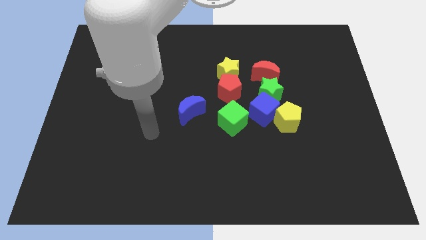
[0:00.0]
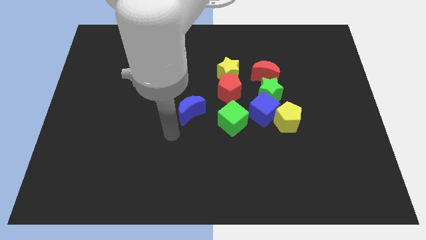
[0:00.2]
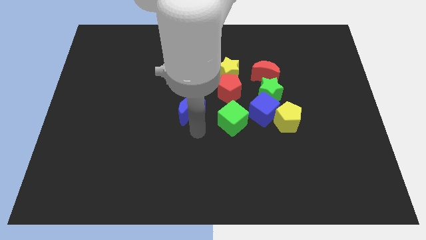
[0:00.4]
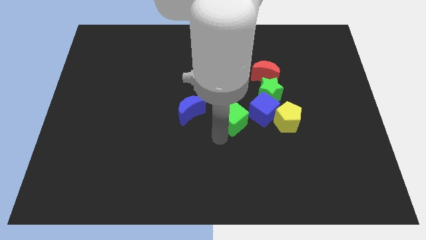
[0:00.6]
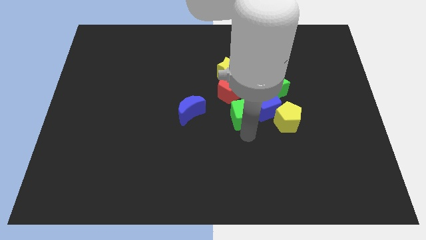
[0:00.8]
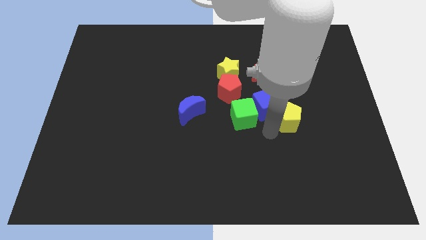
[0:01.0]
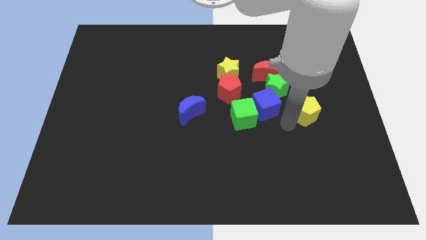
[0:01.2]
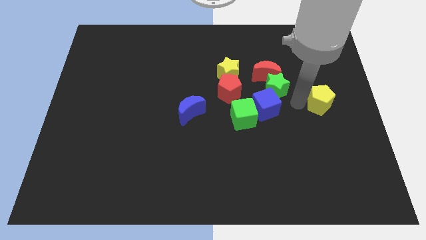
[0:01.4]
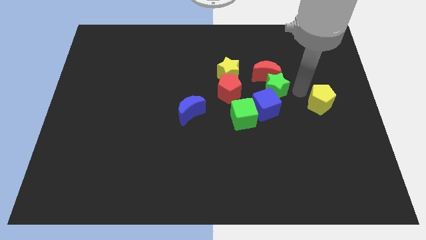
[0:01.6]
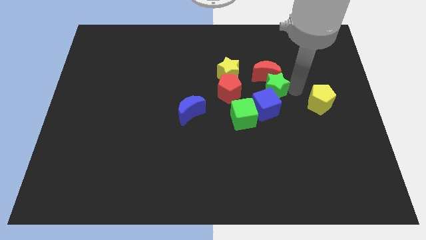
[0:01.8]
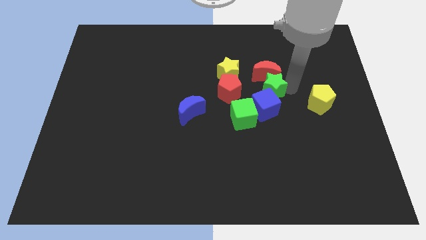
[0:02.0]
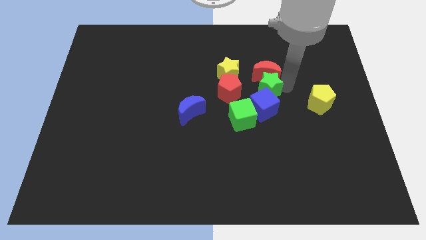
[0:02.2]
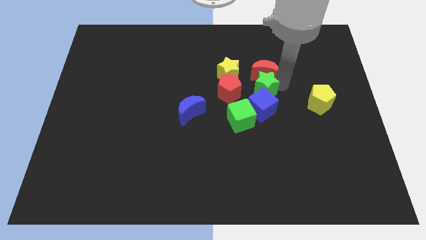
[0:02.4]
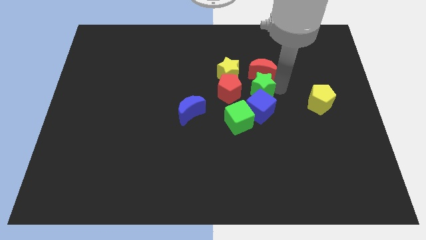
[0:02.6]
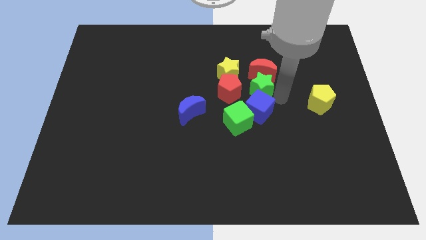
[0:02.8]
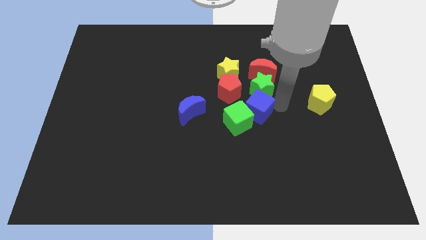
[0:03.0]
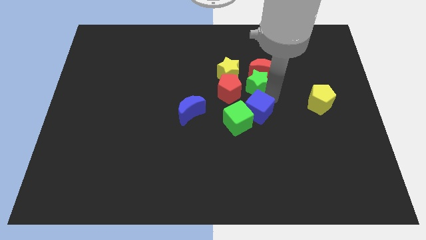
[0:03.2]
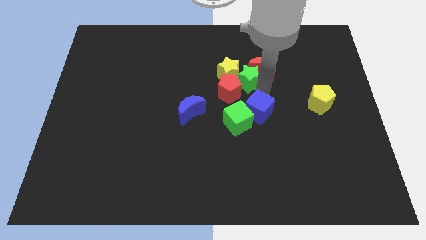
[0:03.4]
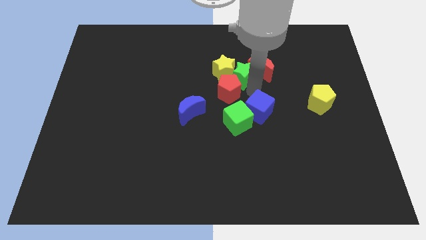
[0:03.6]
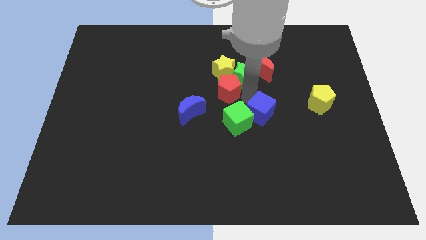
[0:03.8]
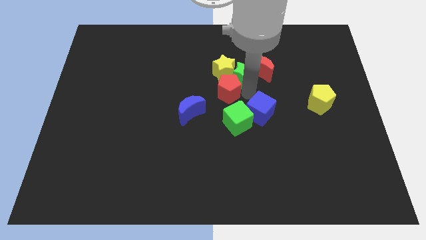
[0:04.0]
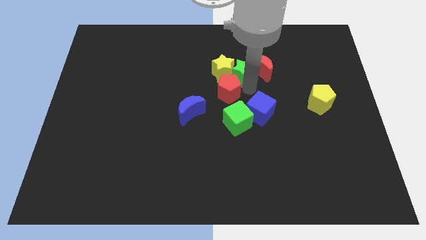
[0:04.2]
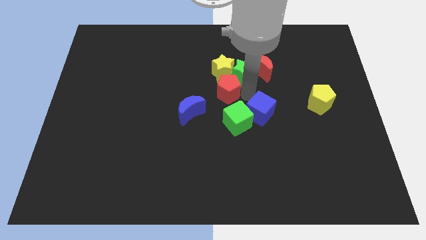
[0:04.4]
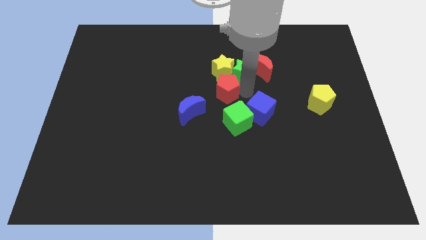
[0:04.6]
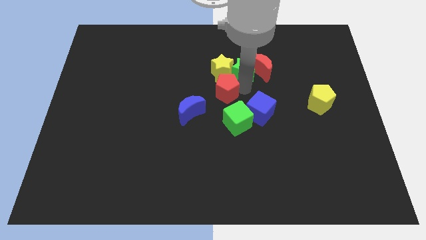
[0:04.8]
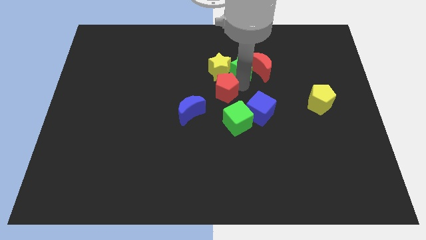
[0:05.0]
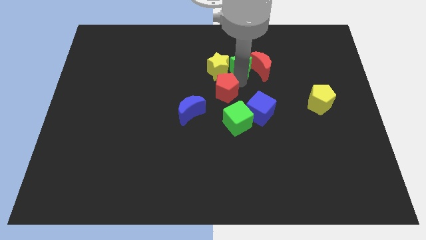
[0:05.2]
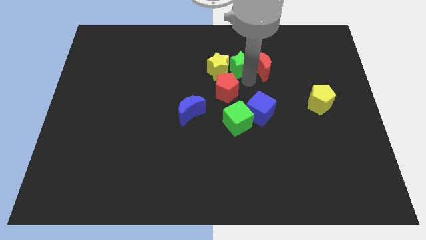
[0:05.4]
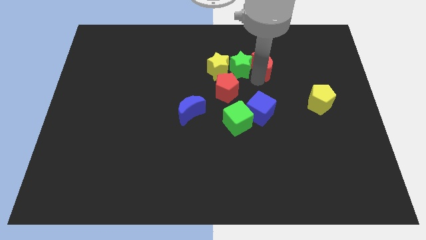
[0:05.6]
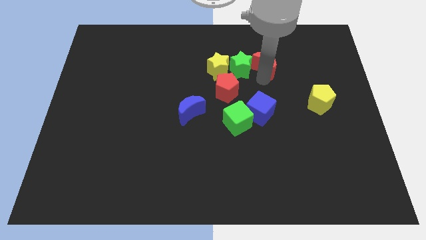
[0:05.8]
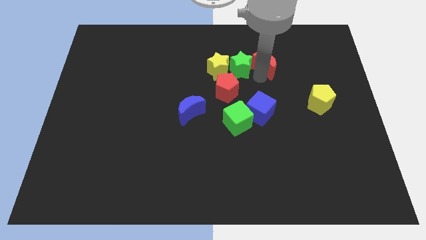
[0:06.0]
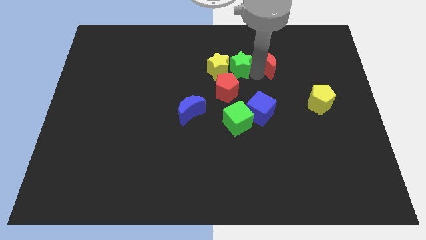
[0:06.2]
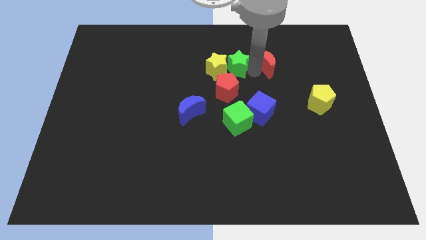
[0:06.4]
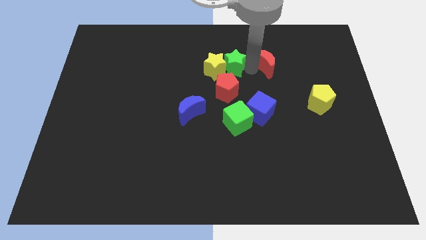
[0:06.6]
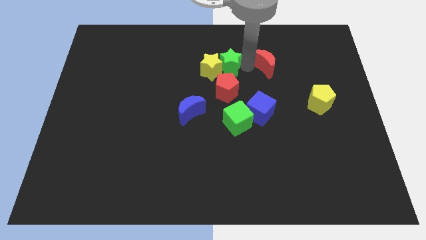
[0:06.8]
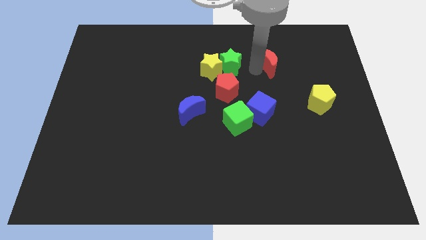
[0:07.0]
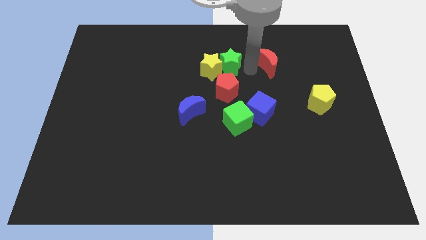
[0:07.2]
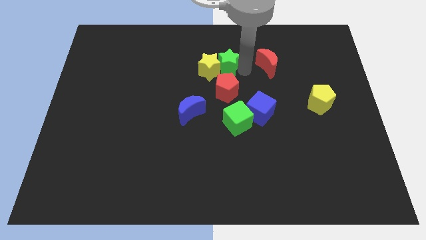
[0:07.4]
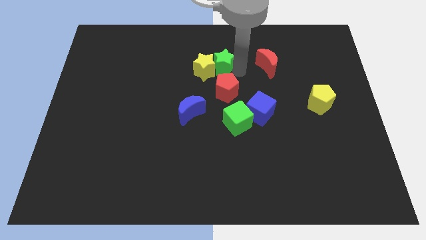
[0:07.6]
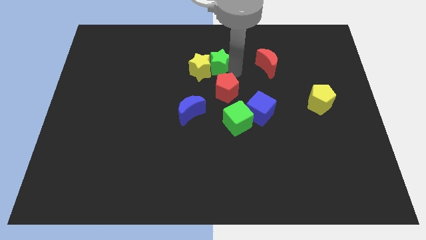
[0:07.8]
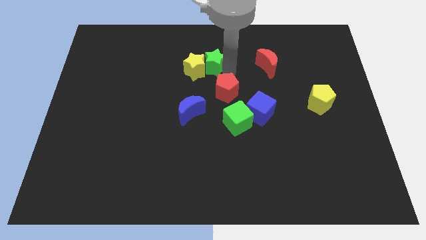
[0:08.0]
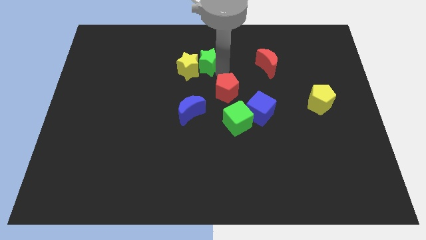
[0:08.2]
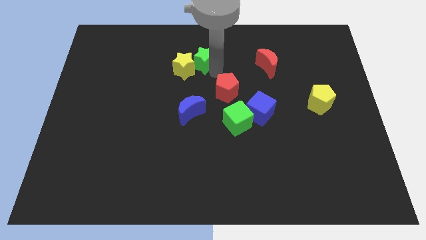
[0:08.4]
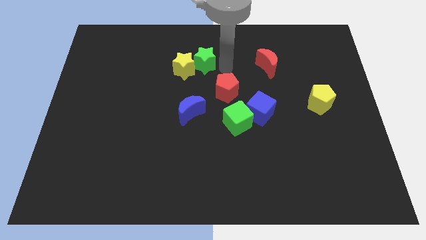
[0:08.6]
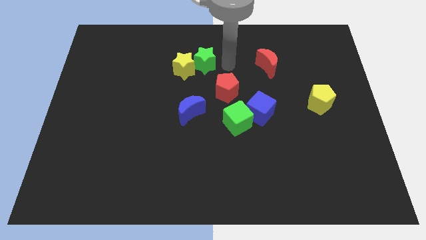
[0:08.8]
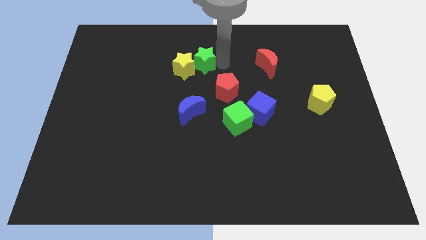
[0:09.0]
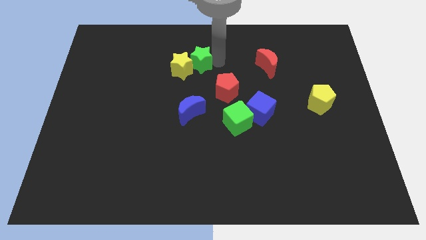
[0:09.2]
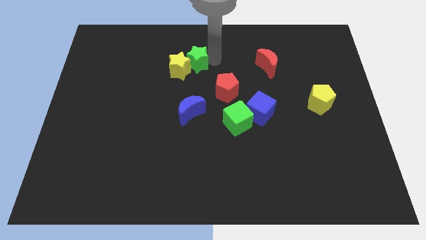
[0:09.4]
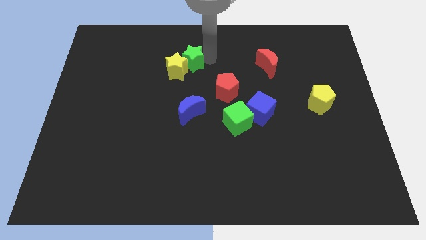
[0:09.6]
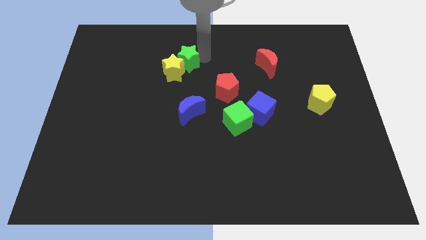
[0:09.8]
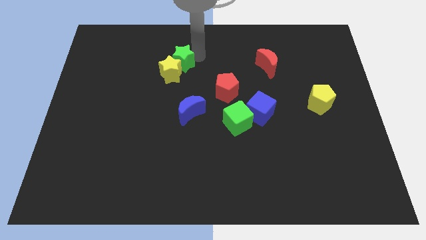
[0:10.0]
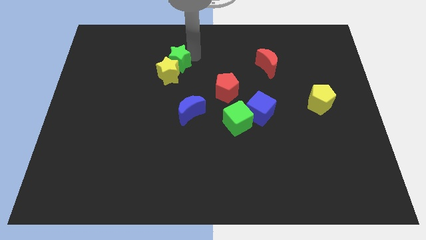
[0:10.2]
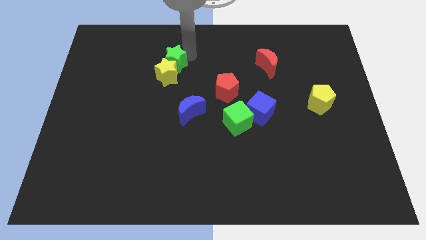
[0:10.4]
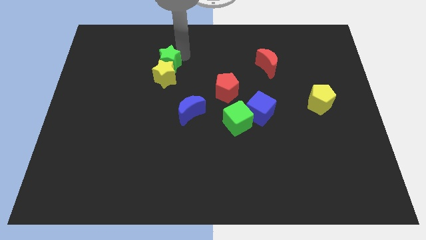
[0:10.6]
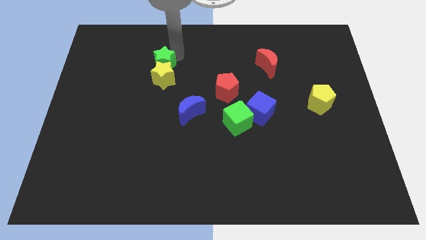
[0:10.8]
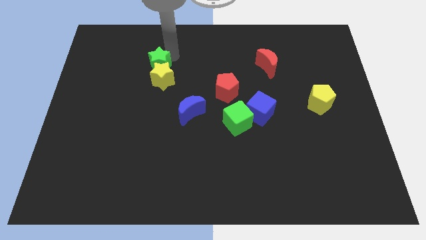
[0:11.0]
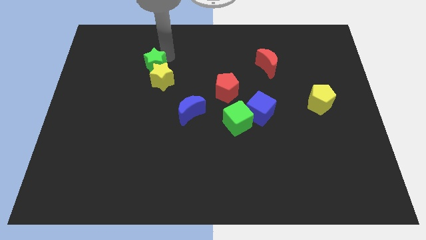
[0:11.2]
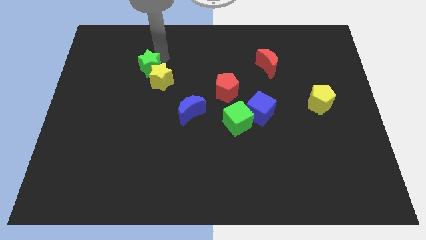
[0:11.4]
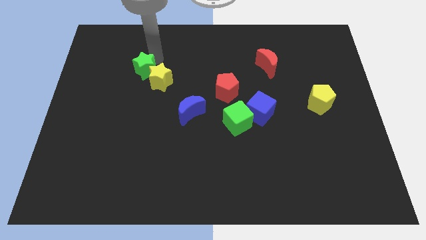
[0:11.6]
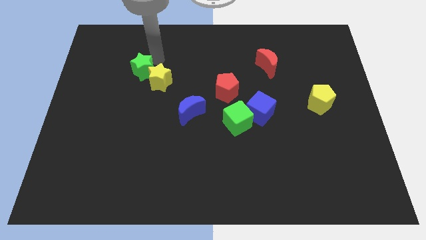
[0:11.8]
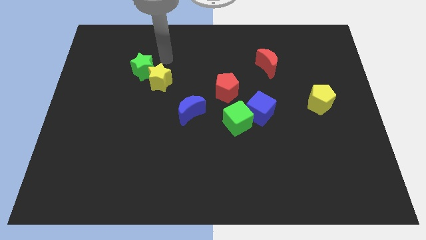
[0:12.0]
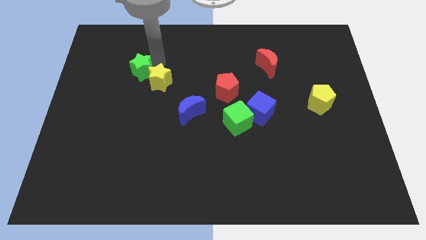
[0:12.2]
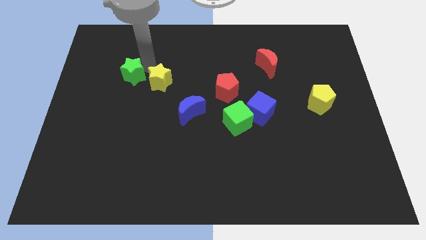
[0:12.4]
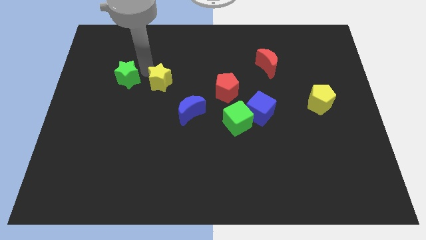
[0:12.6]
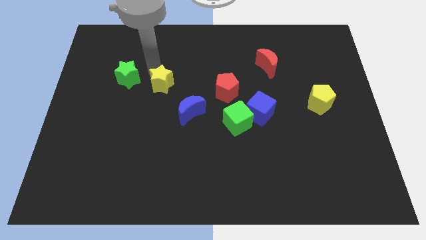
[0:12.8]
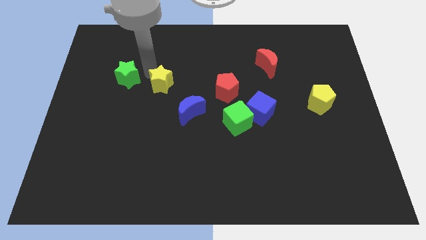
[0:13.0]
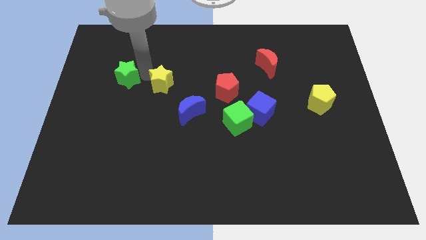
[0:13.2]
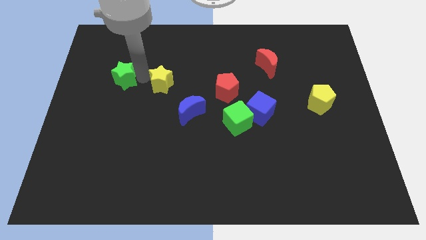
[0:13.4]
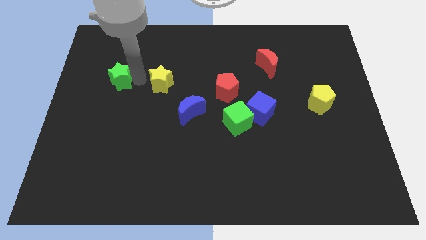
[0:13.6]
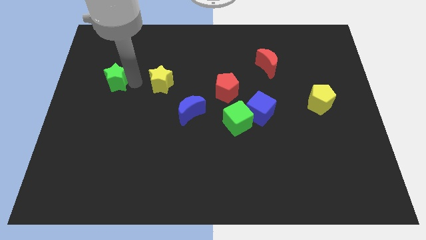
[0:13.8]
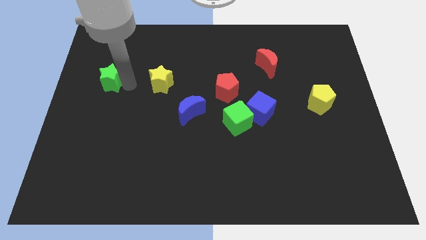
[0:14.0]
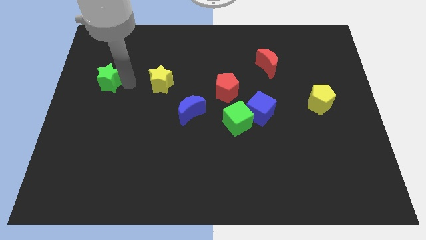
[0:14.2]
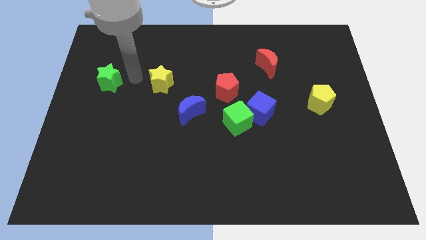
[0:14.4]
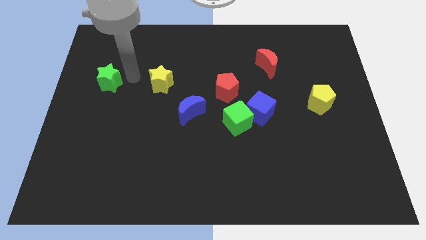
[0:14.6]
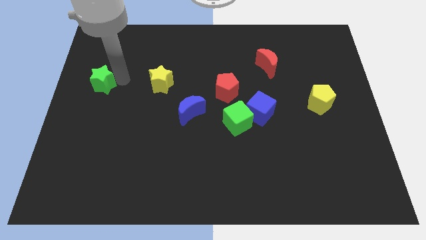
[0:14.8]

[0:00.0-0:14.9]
put the green star to the left side

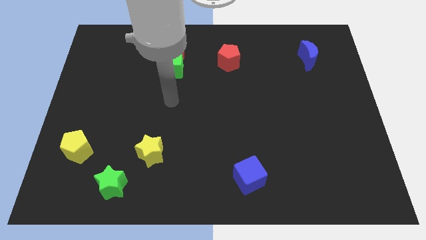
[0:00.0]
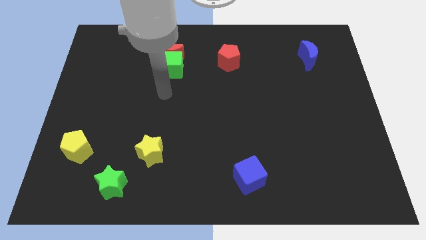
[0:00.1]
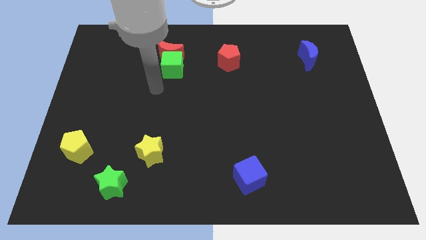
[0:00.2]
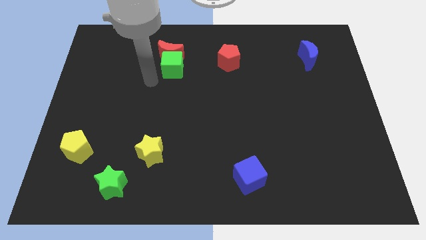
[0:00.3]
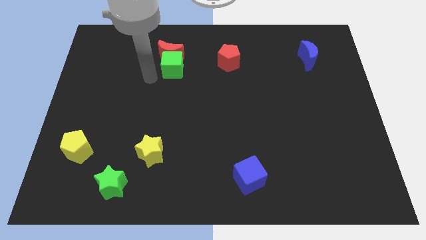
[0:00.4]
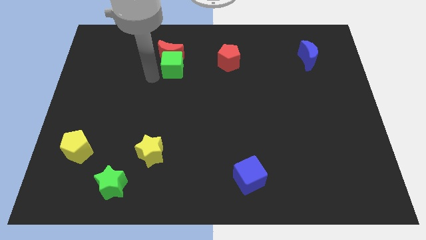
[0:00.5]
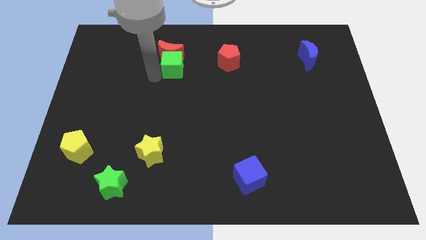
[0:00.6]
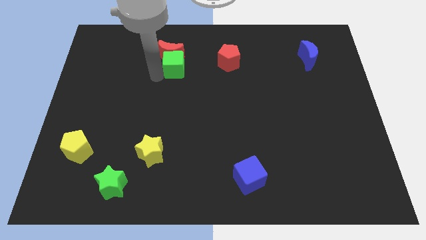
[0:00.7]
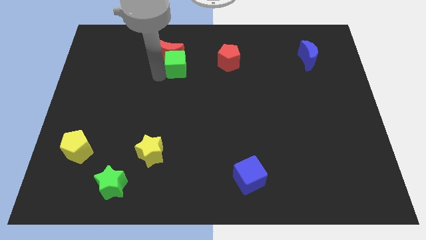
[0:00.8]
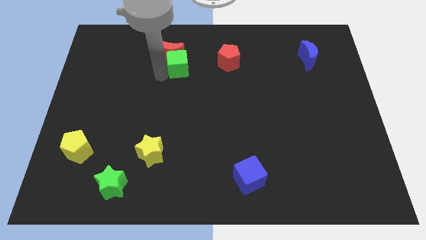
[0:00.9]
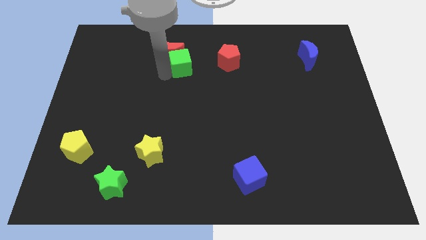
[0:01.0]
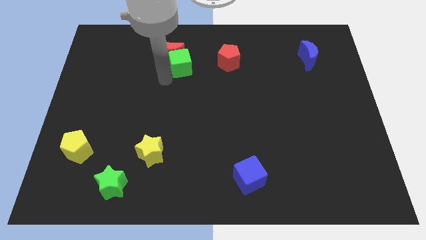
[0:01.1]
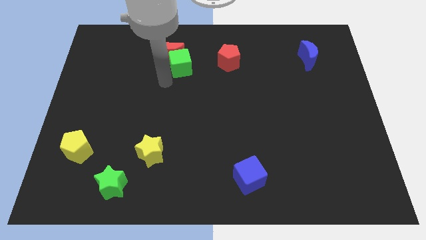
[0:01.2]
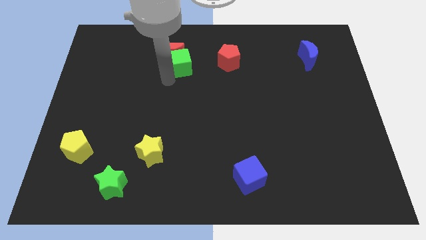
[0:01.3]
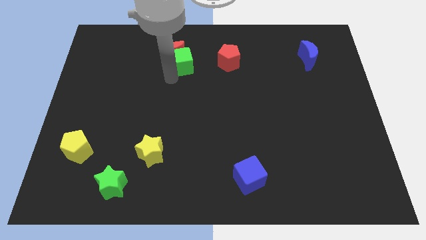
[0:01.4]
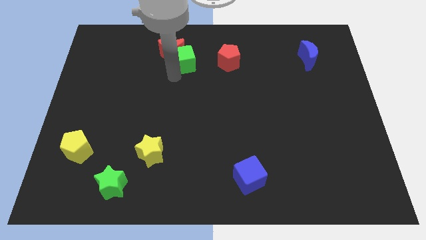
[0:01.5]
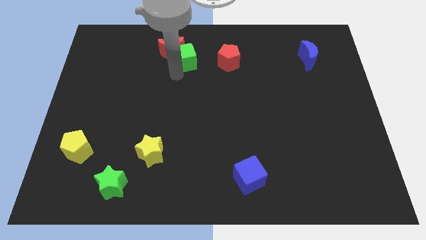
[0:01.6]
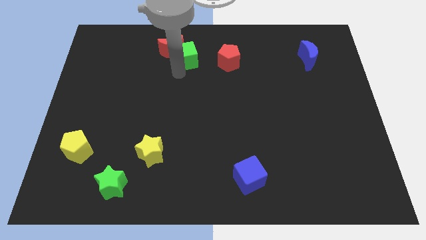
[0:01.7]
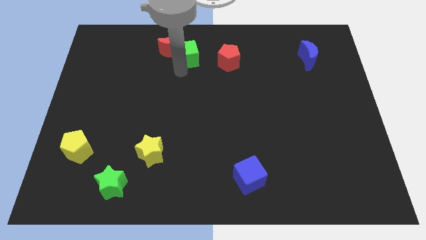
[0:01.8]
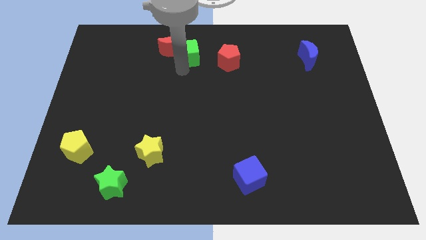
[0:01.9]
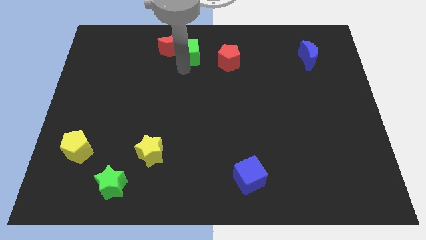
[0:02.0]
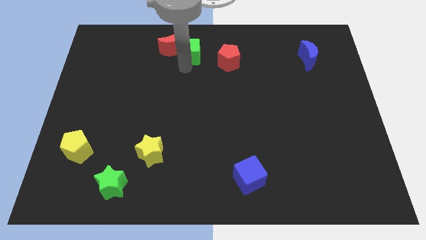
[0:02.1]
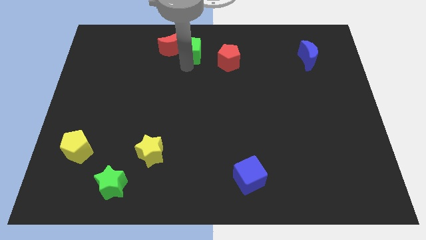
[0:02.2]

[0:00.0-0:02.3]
push the green cube to the towards your base
